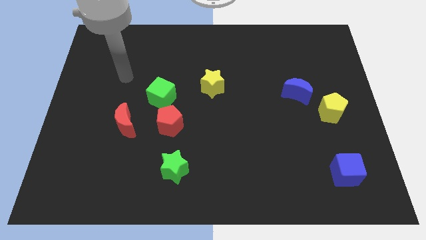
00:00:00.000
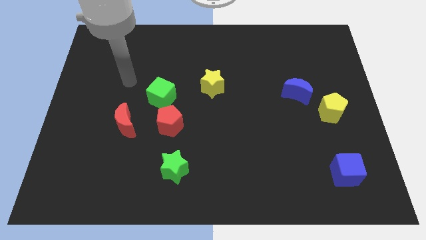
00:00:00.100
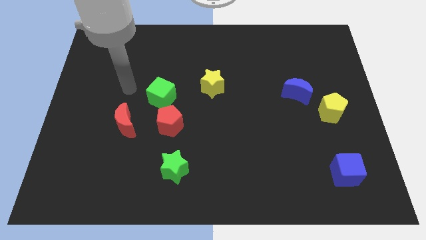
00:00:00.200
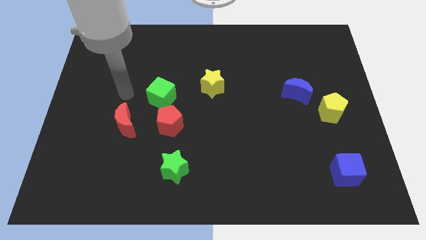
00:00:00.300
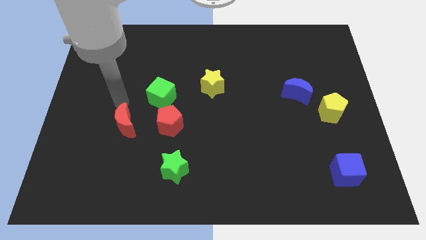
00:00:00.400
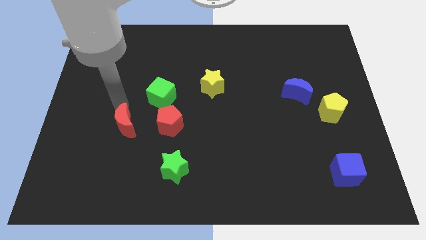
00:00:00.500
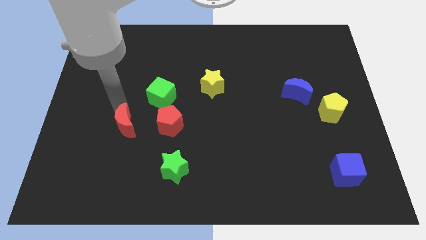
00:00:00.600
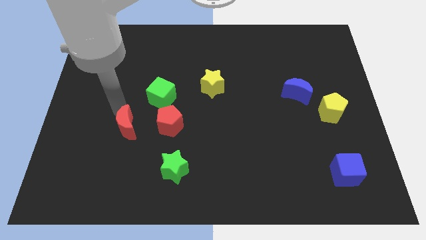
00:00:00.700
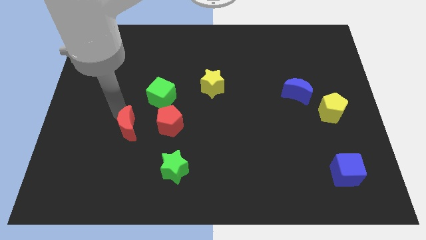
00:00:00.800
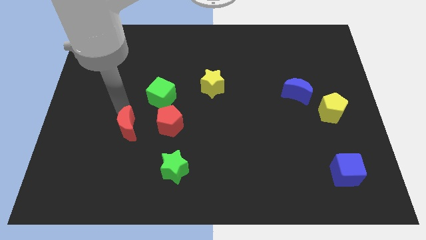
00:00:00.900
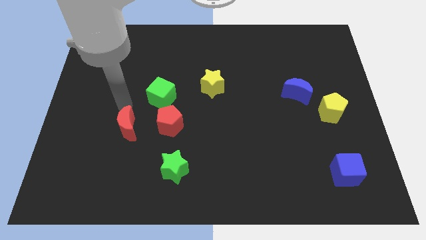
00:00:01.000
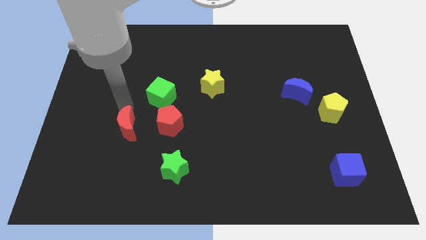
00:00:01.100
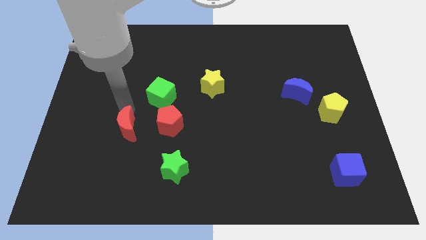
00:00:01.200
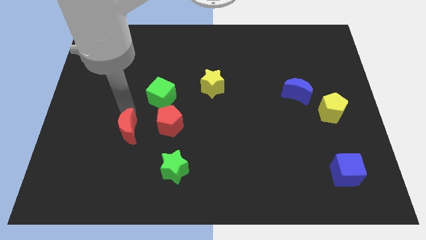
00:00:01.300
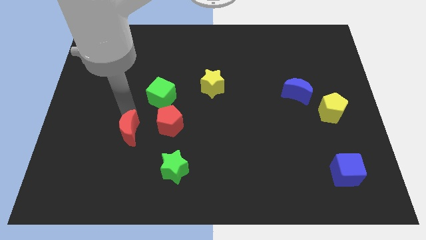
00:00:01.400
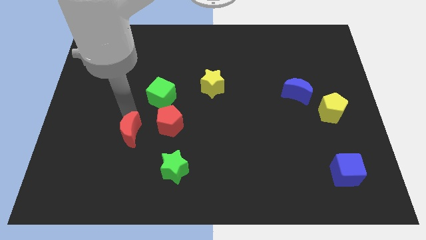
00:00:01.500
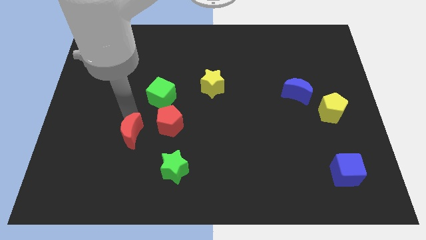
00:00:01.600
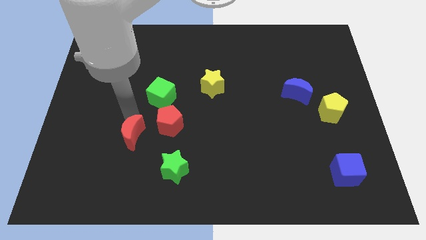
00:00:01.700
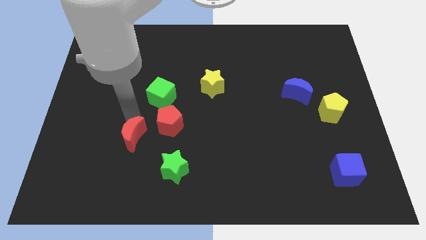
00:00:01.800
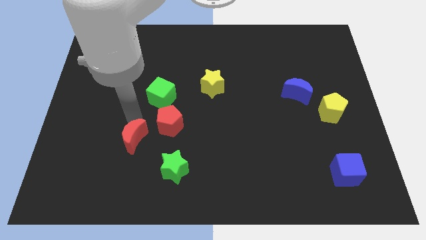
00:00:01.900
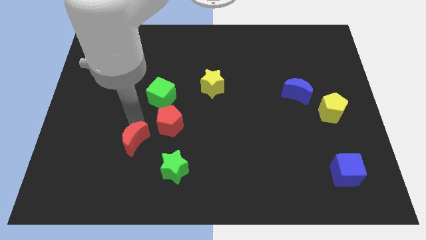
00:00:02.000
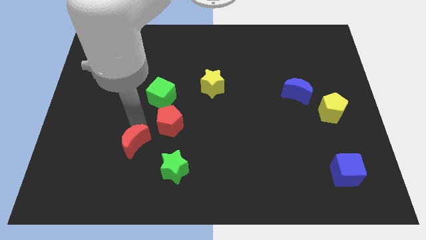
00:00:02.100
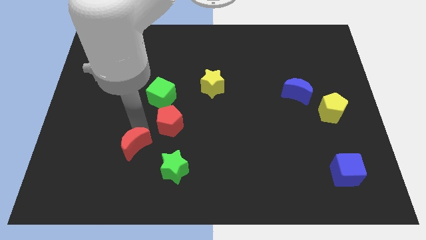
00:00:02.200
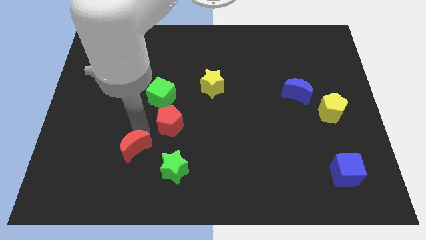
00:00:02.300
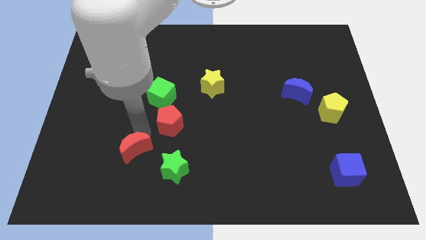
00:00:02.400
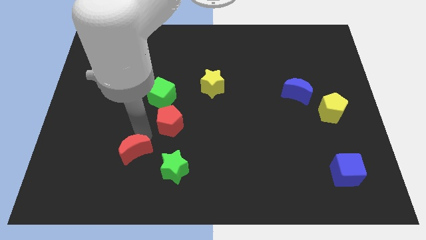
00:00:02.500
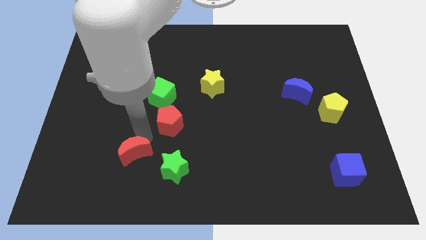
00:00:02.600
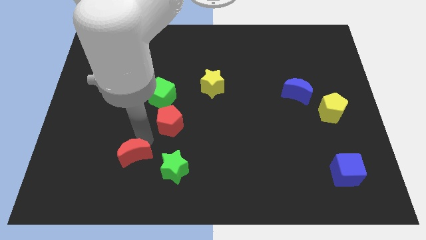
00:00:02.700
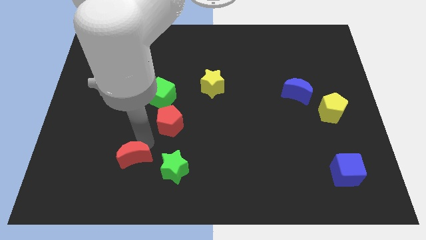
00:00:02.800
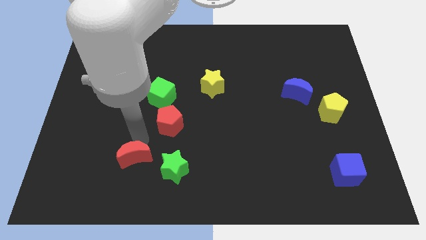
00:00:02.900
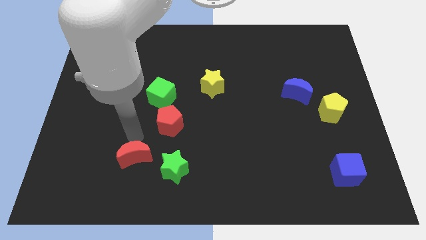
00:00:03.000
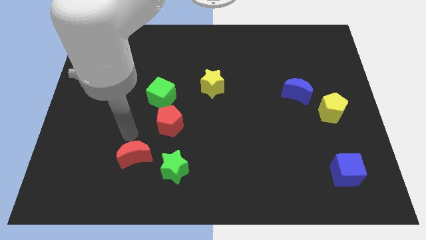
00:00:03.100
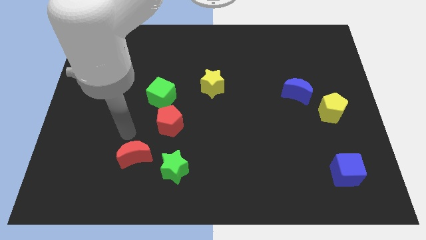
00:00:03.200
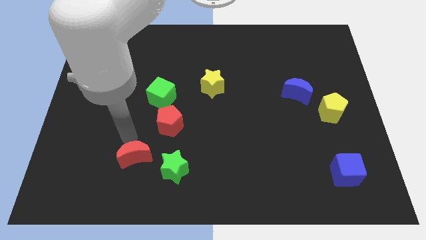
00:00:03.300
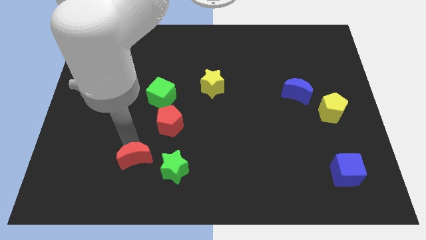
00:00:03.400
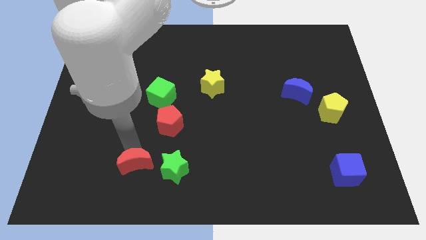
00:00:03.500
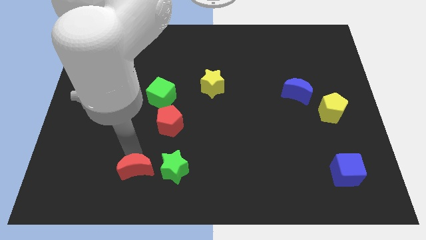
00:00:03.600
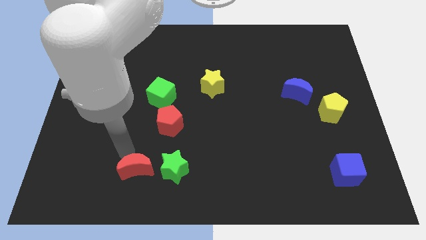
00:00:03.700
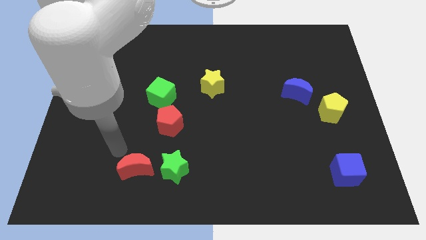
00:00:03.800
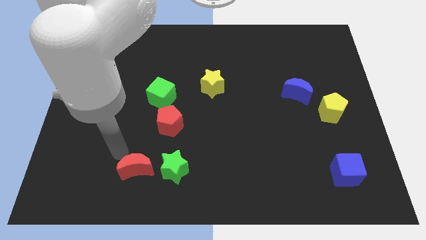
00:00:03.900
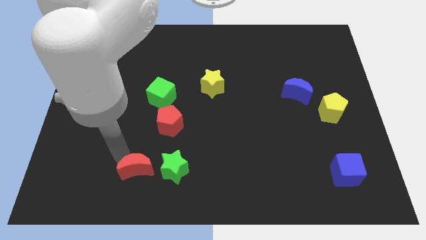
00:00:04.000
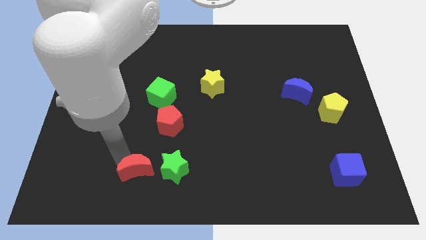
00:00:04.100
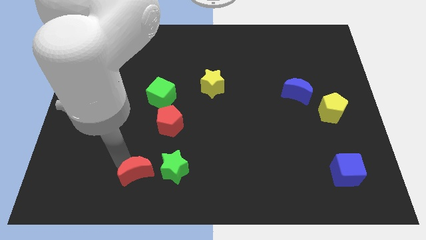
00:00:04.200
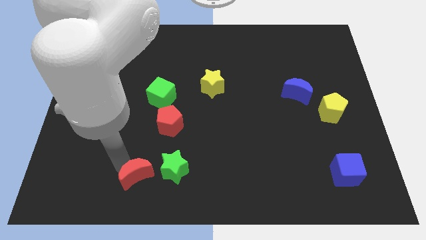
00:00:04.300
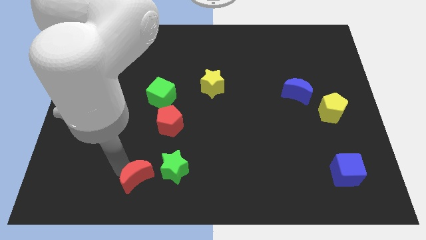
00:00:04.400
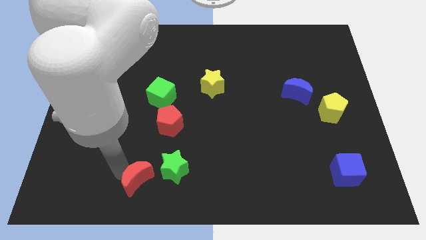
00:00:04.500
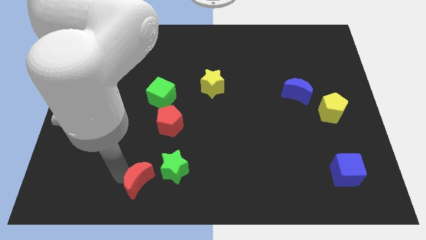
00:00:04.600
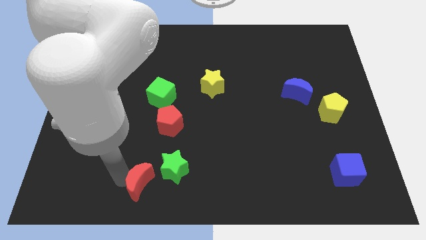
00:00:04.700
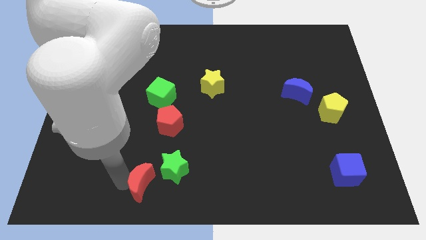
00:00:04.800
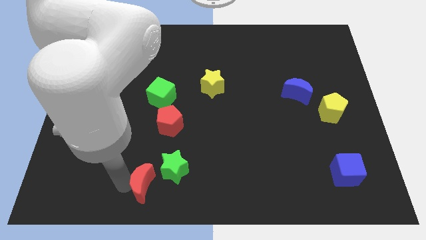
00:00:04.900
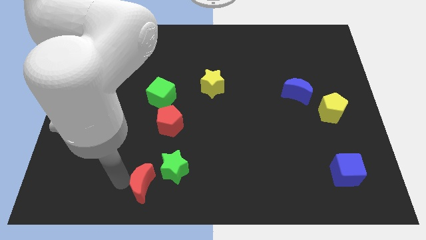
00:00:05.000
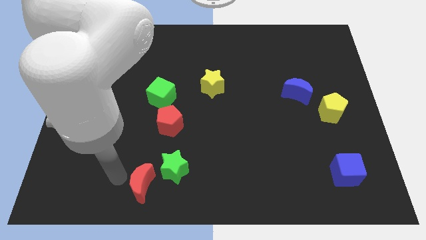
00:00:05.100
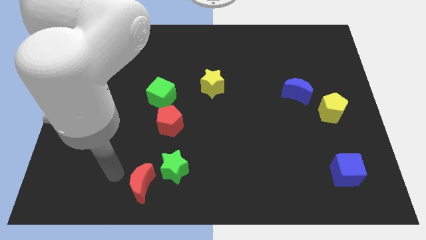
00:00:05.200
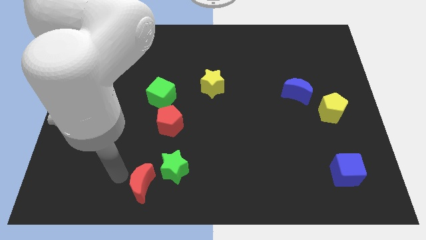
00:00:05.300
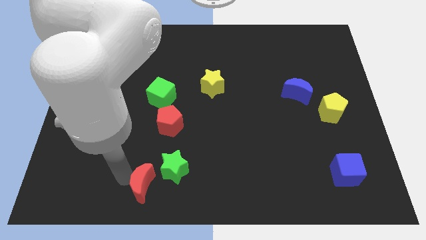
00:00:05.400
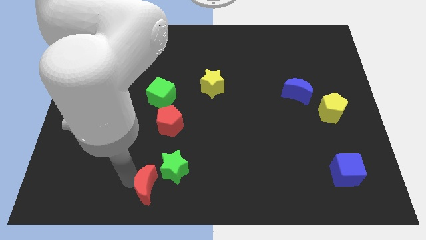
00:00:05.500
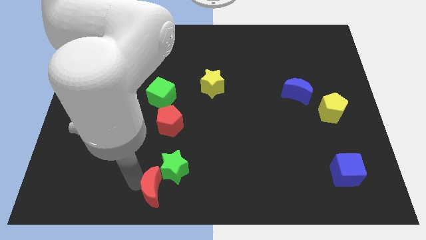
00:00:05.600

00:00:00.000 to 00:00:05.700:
push the red moon to the bottom

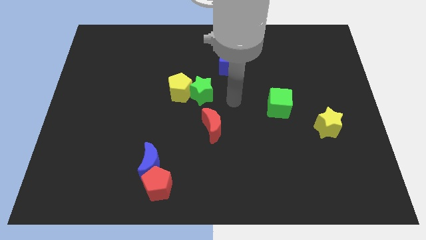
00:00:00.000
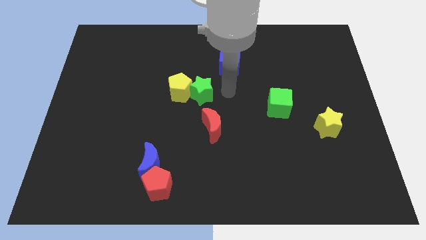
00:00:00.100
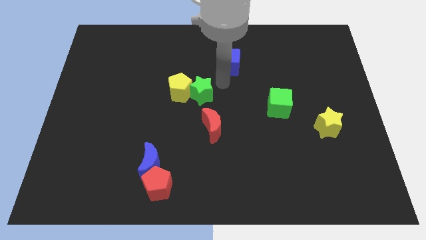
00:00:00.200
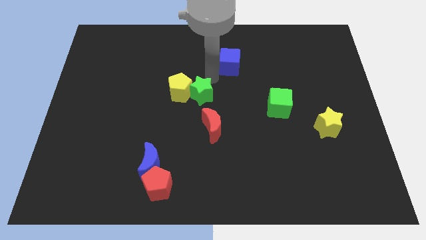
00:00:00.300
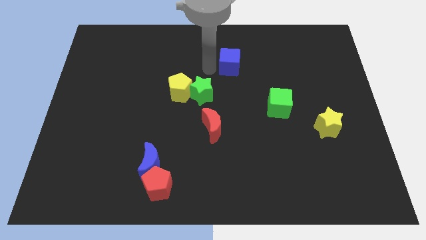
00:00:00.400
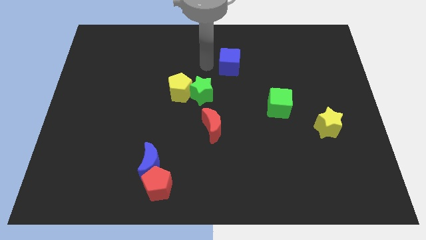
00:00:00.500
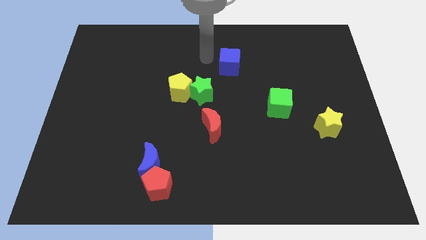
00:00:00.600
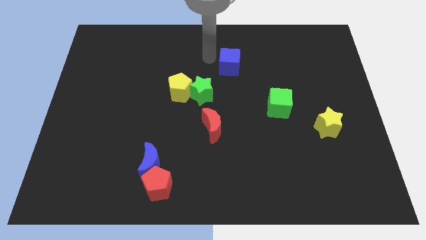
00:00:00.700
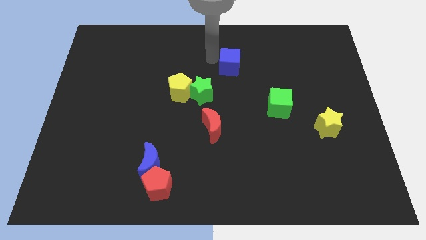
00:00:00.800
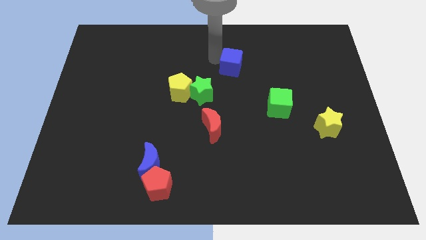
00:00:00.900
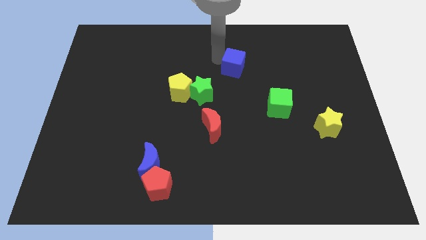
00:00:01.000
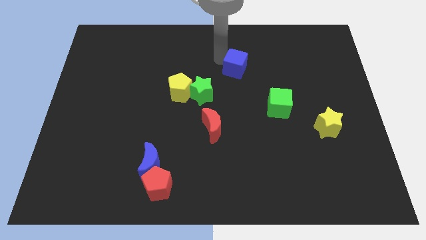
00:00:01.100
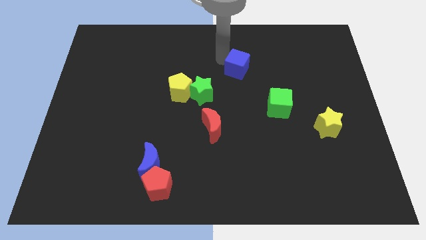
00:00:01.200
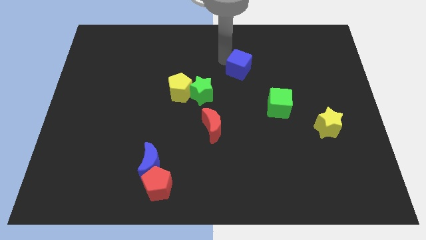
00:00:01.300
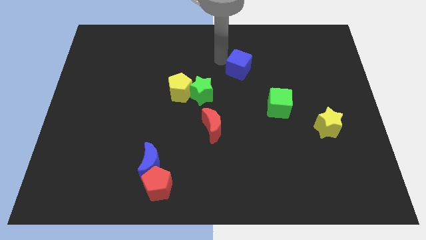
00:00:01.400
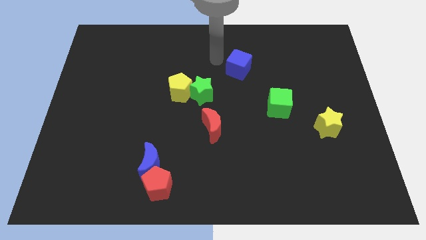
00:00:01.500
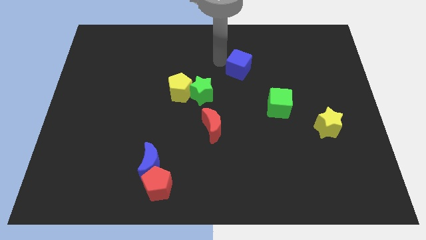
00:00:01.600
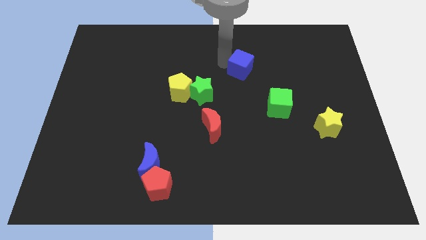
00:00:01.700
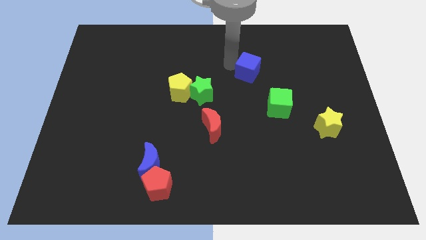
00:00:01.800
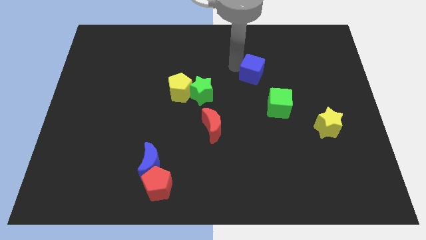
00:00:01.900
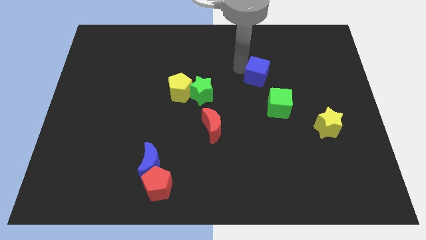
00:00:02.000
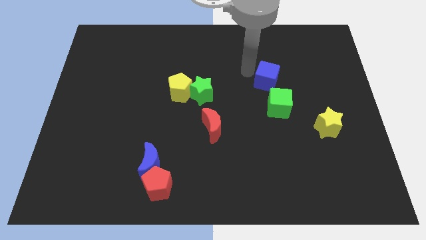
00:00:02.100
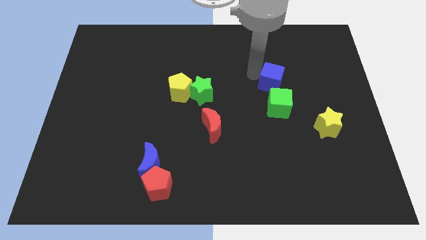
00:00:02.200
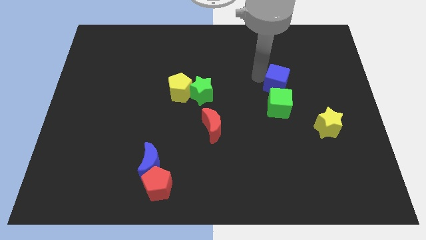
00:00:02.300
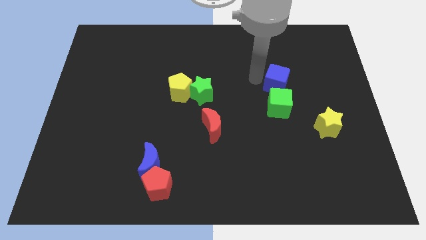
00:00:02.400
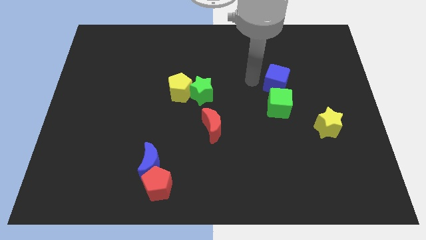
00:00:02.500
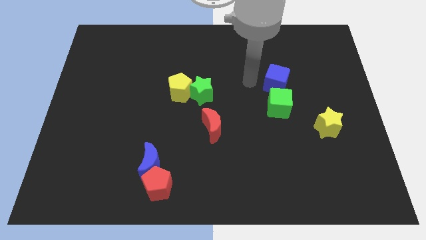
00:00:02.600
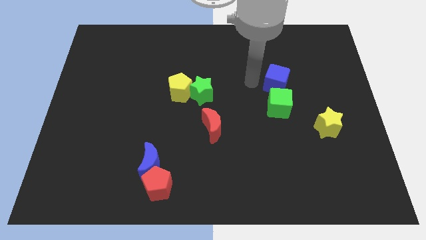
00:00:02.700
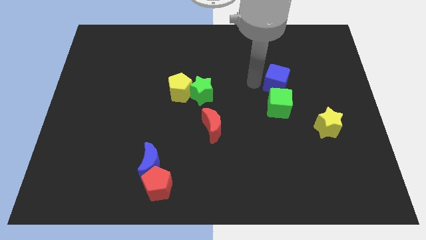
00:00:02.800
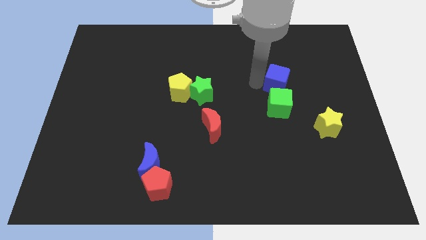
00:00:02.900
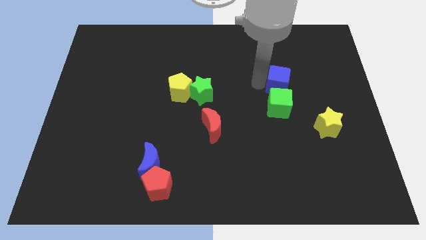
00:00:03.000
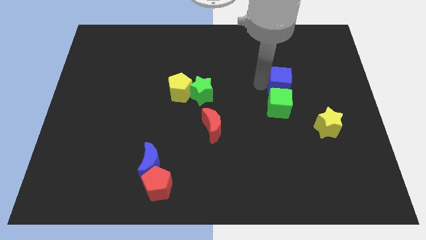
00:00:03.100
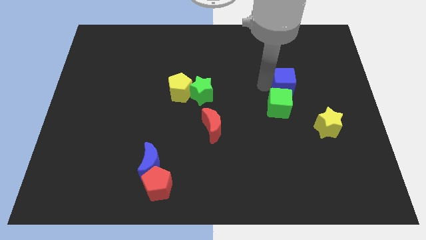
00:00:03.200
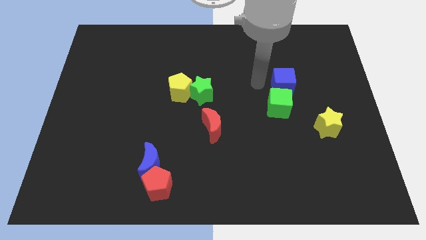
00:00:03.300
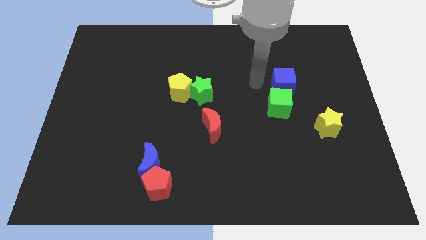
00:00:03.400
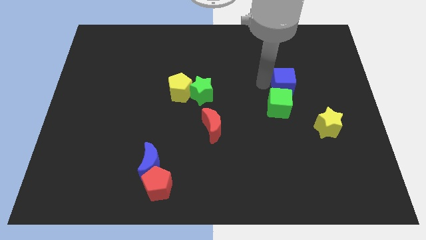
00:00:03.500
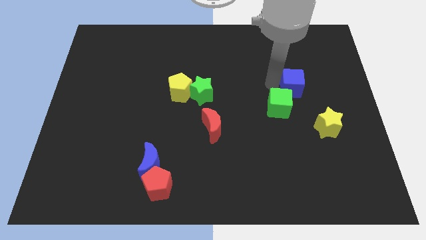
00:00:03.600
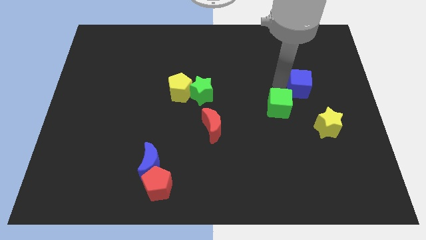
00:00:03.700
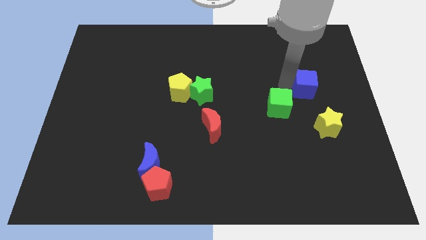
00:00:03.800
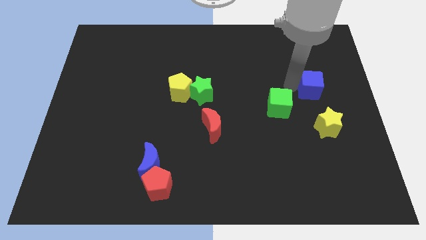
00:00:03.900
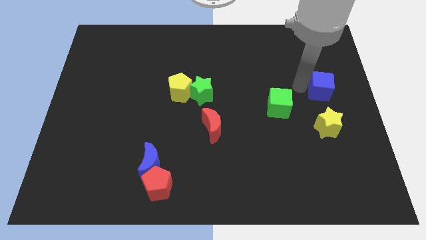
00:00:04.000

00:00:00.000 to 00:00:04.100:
push the blue cube to the right side
